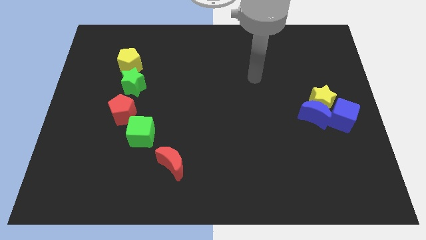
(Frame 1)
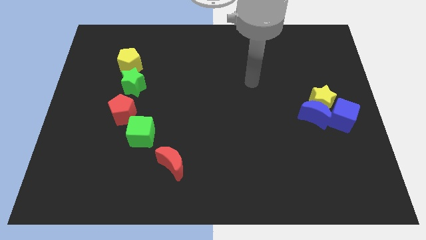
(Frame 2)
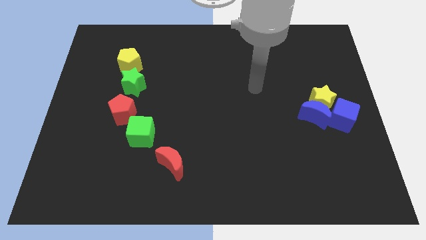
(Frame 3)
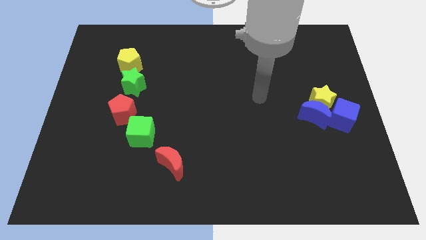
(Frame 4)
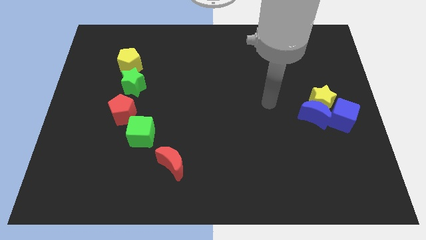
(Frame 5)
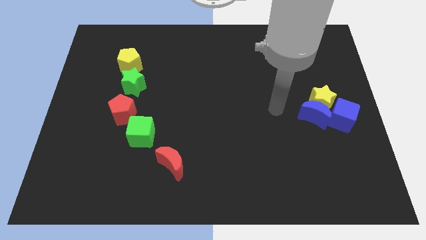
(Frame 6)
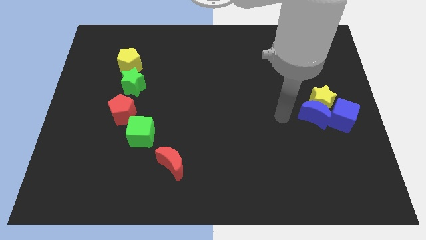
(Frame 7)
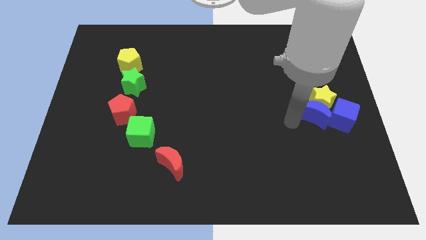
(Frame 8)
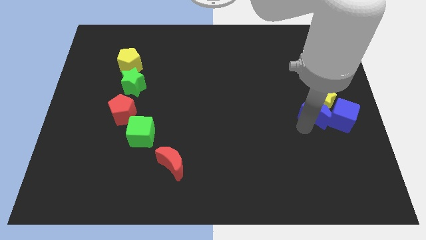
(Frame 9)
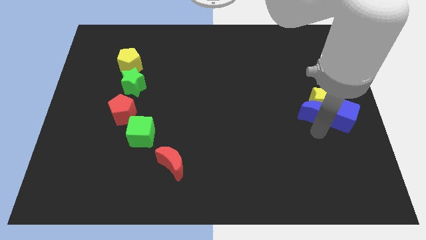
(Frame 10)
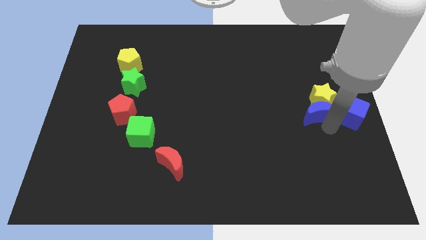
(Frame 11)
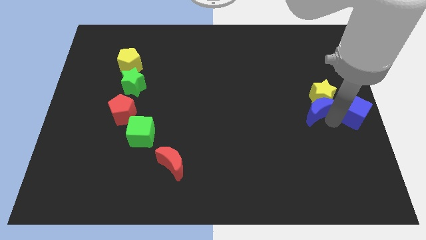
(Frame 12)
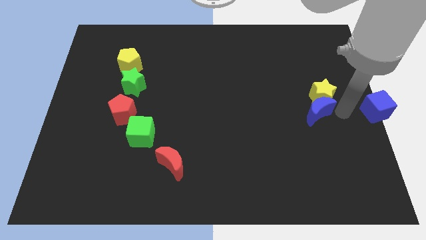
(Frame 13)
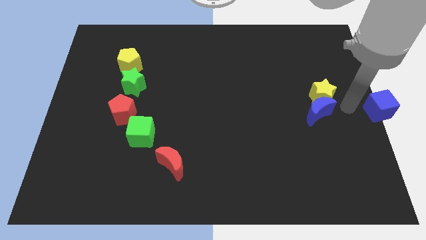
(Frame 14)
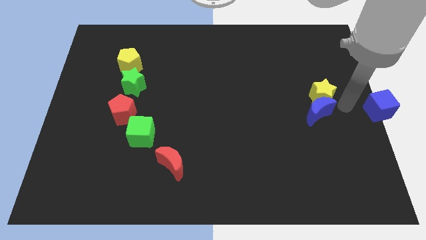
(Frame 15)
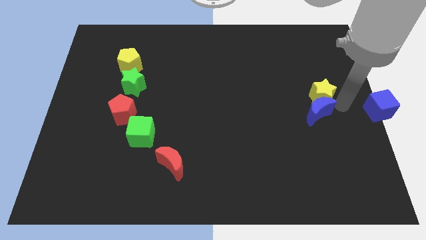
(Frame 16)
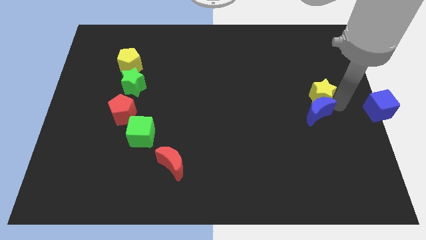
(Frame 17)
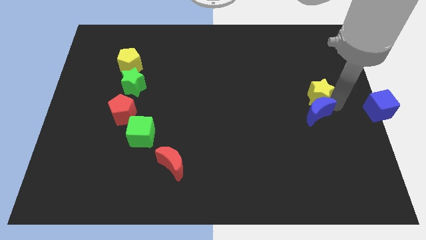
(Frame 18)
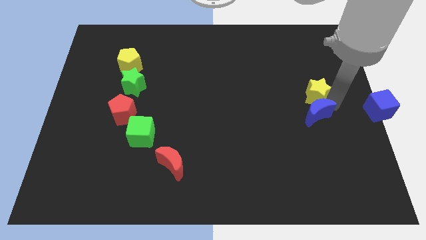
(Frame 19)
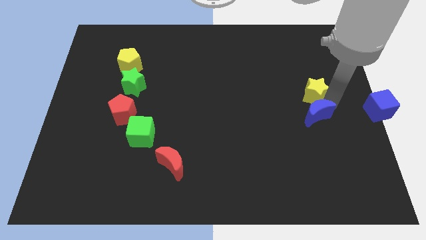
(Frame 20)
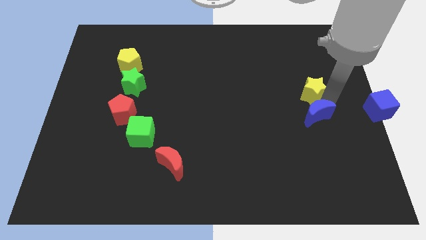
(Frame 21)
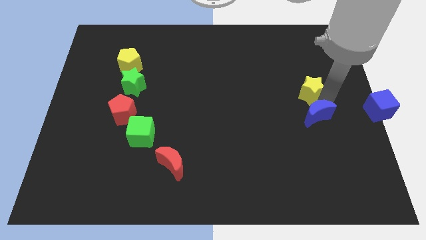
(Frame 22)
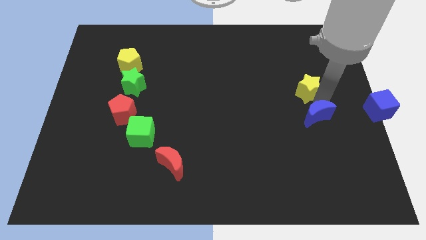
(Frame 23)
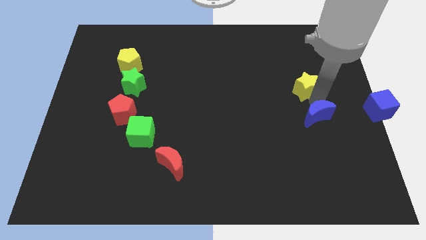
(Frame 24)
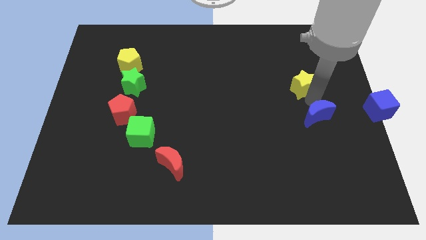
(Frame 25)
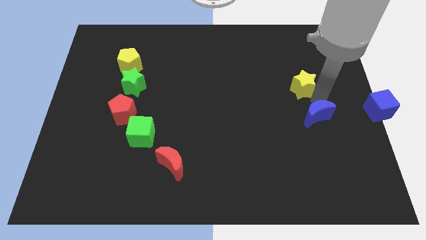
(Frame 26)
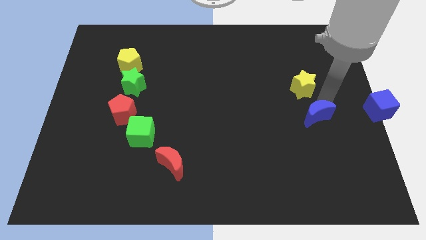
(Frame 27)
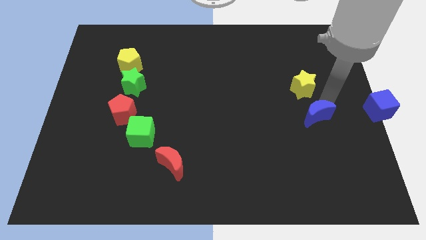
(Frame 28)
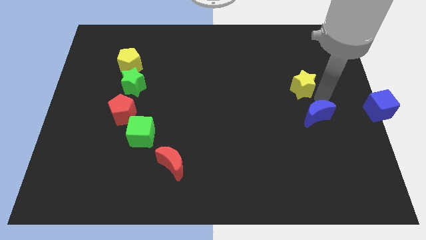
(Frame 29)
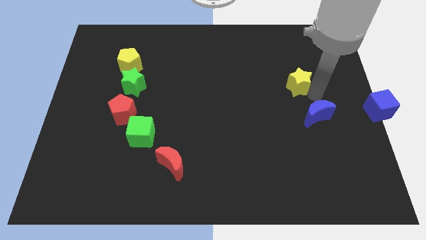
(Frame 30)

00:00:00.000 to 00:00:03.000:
push the yellow star a little up and left

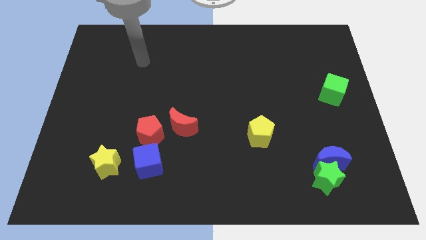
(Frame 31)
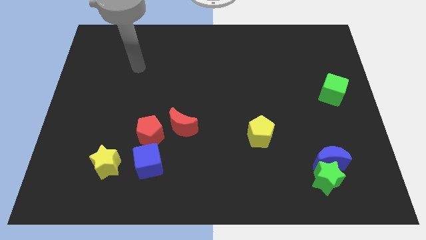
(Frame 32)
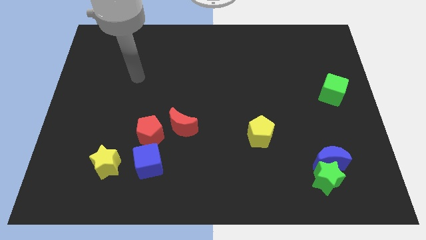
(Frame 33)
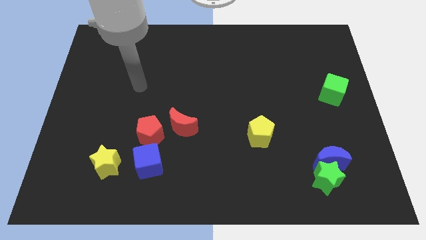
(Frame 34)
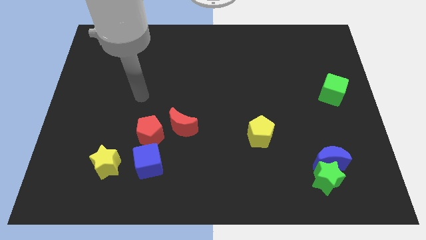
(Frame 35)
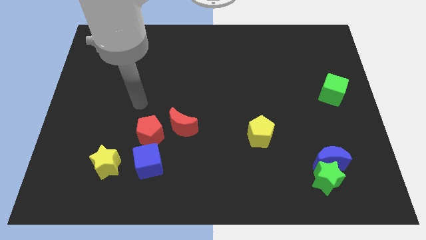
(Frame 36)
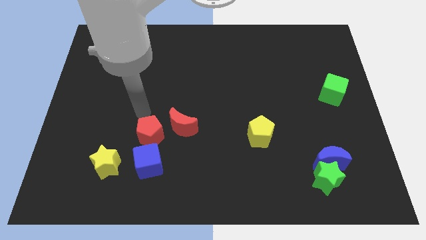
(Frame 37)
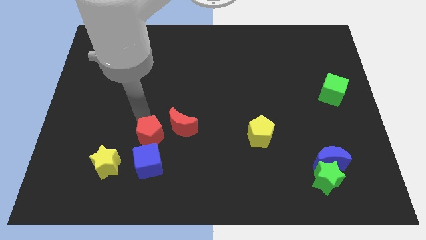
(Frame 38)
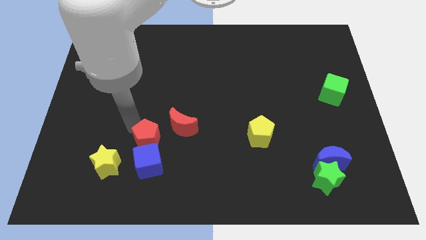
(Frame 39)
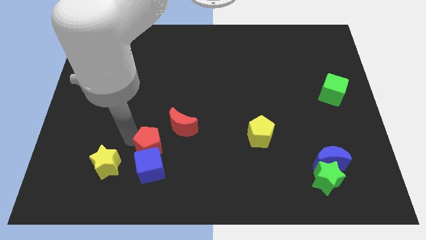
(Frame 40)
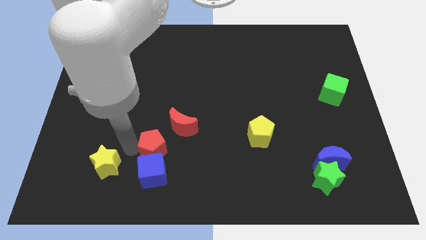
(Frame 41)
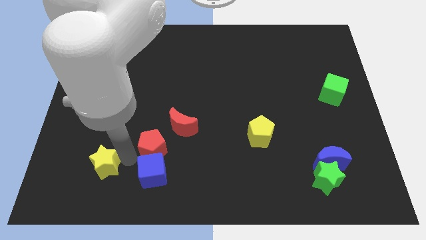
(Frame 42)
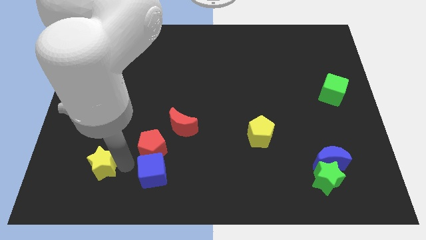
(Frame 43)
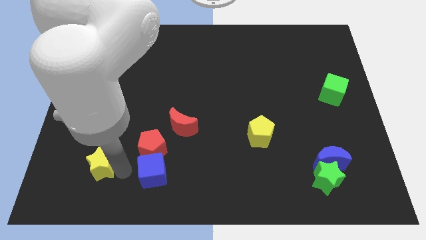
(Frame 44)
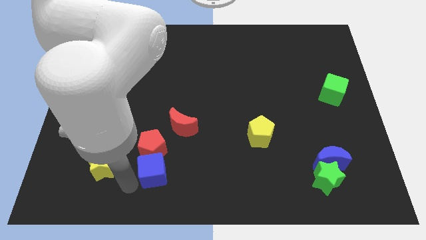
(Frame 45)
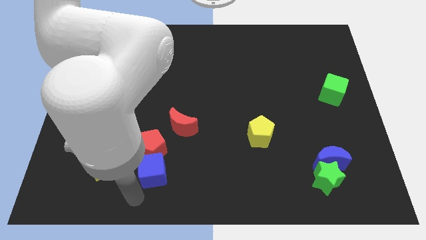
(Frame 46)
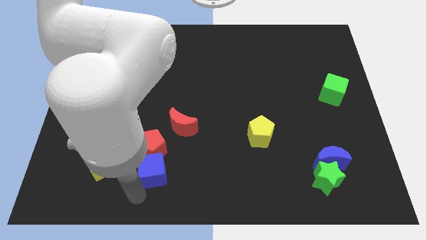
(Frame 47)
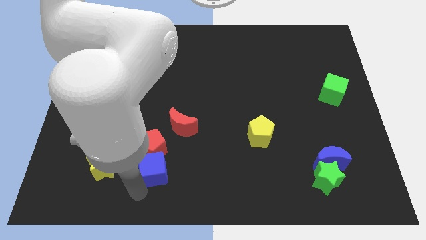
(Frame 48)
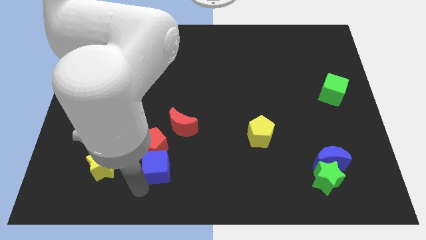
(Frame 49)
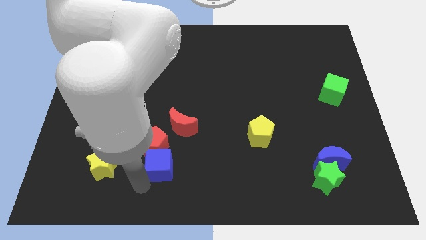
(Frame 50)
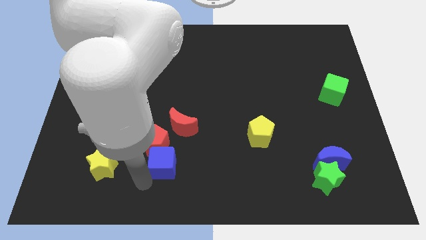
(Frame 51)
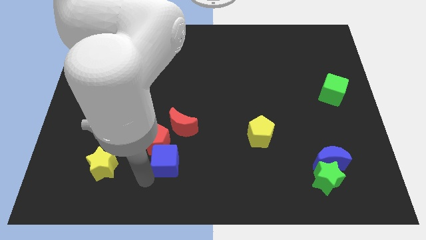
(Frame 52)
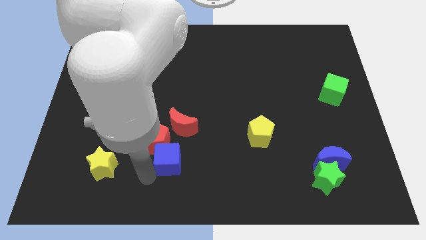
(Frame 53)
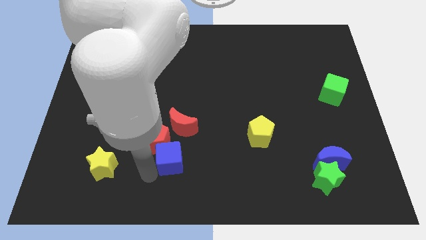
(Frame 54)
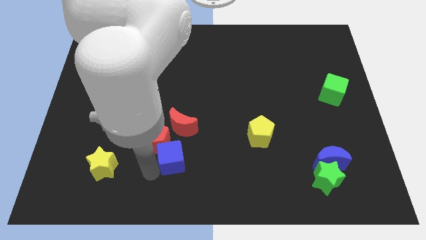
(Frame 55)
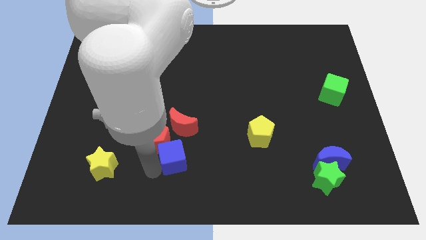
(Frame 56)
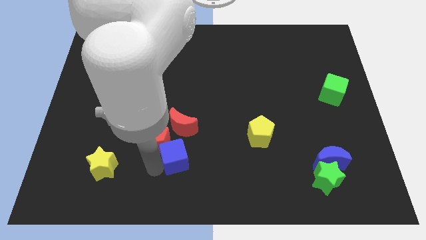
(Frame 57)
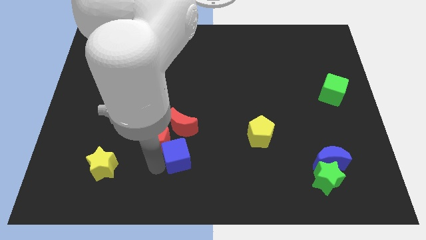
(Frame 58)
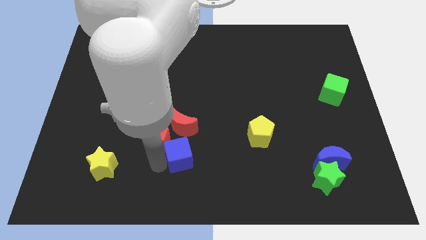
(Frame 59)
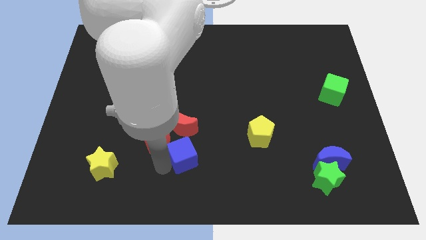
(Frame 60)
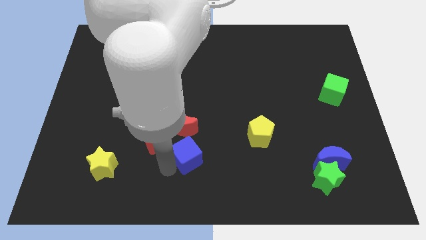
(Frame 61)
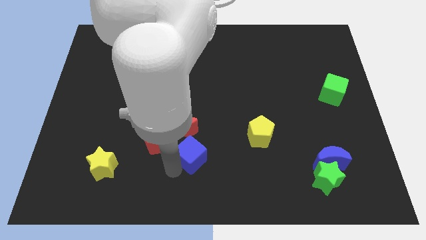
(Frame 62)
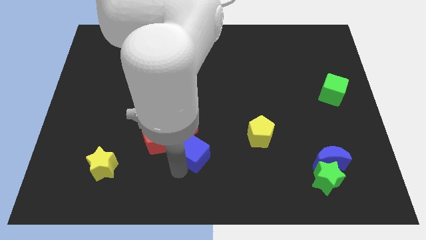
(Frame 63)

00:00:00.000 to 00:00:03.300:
move the blue cube somewhat up and then to the right

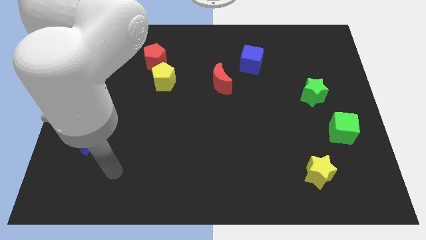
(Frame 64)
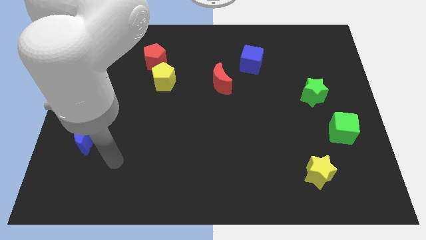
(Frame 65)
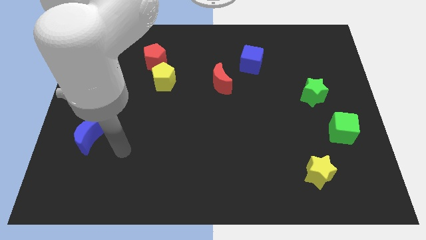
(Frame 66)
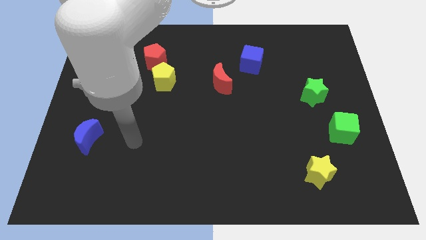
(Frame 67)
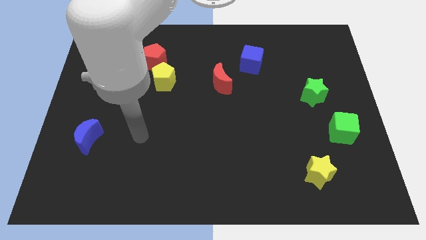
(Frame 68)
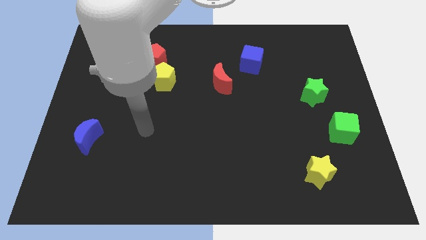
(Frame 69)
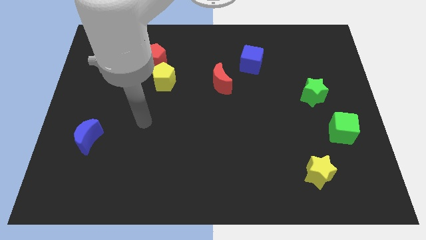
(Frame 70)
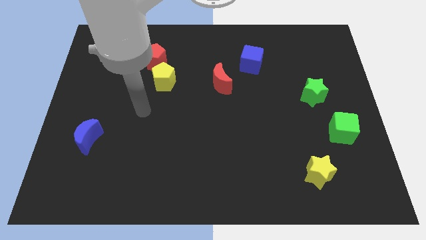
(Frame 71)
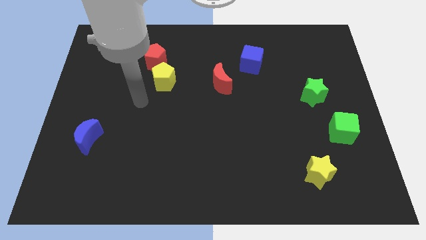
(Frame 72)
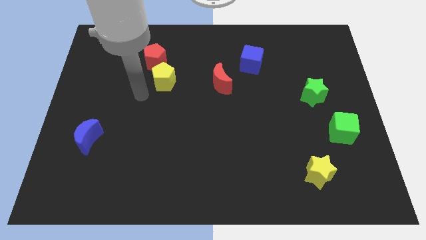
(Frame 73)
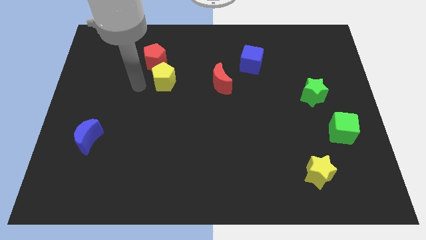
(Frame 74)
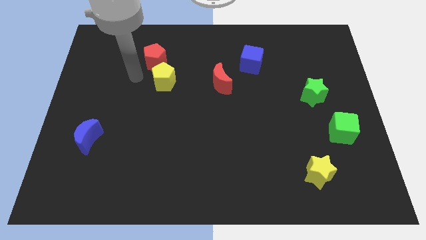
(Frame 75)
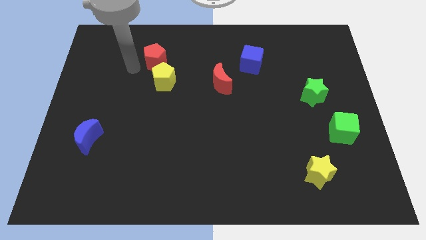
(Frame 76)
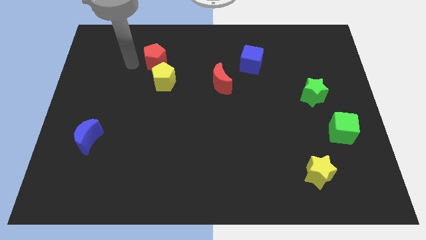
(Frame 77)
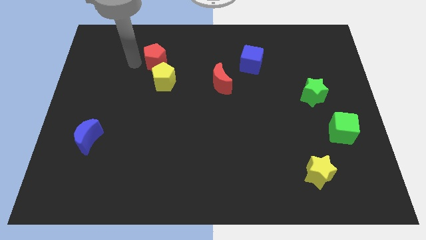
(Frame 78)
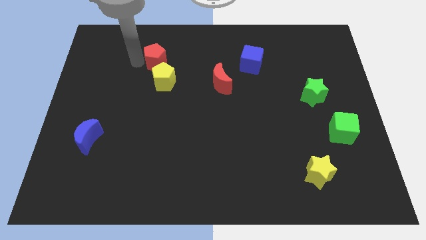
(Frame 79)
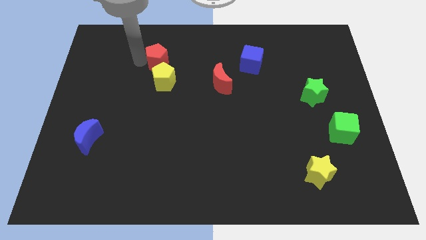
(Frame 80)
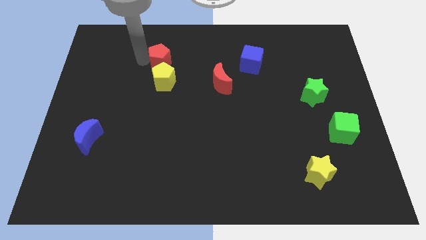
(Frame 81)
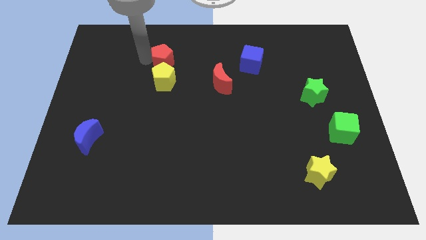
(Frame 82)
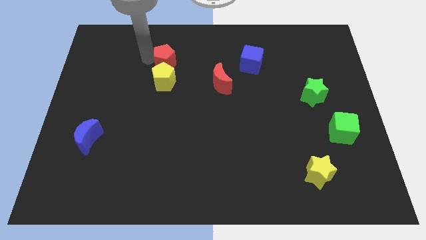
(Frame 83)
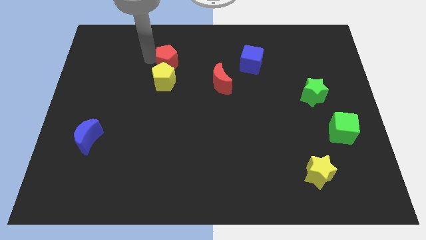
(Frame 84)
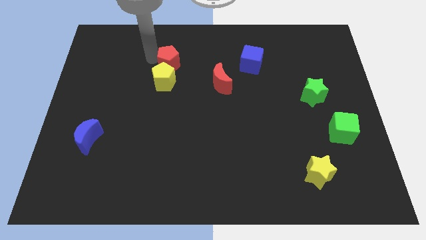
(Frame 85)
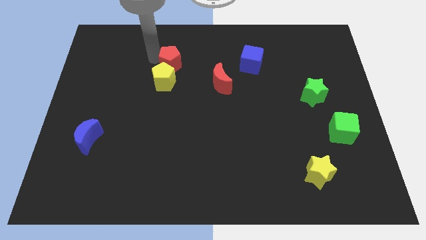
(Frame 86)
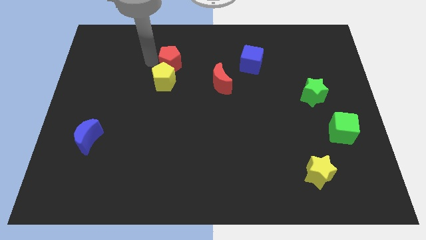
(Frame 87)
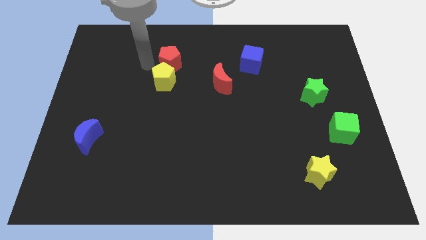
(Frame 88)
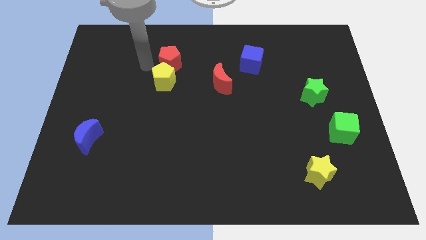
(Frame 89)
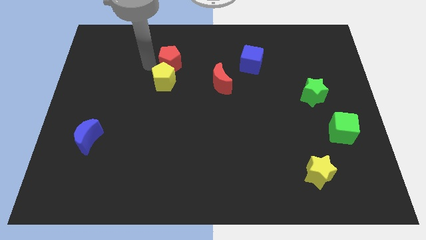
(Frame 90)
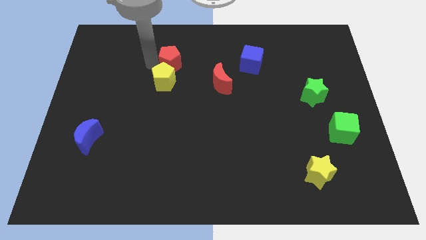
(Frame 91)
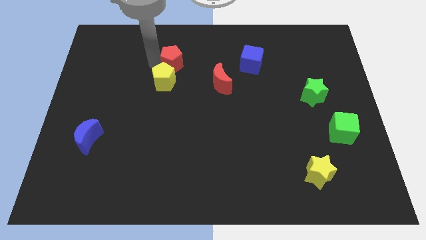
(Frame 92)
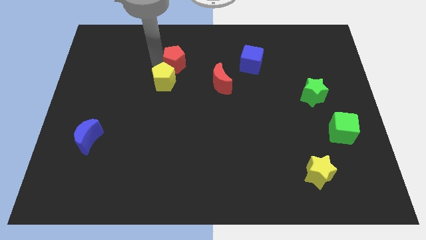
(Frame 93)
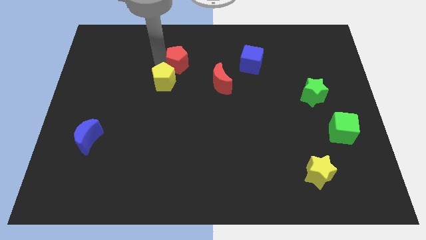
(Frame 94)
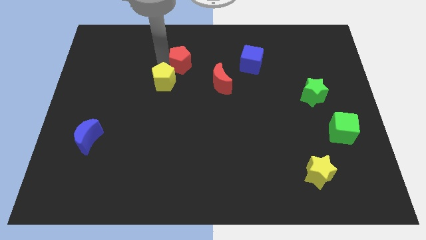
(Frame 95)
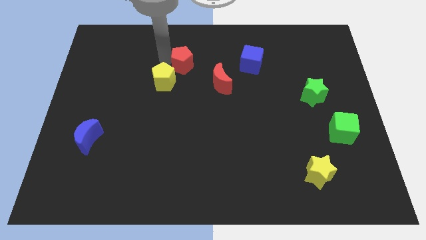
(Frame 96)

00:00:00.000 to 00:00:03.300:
slightly push the red pentagon to the right
